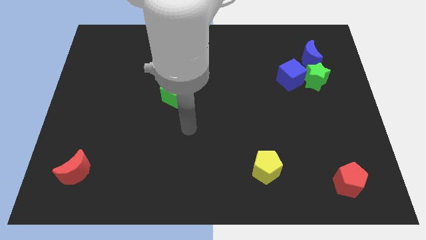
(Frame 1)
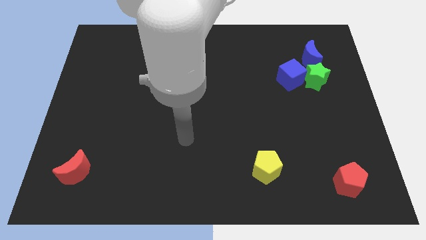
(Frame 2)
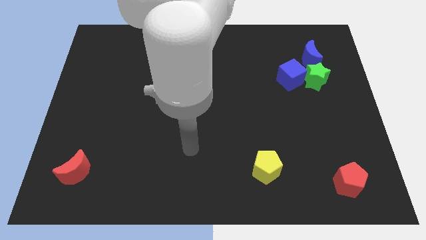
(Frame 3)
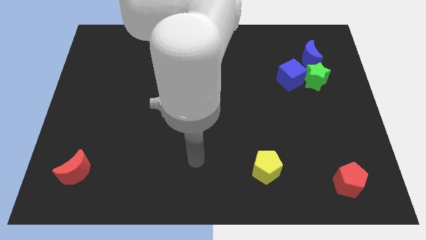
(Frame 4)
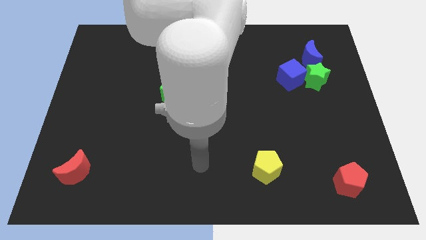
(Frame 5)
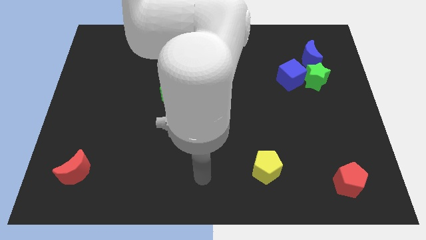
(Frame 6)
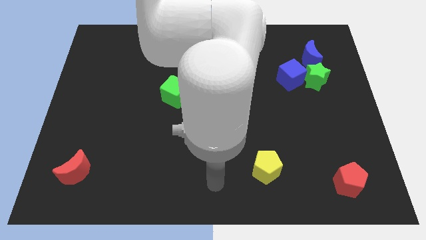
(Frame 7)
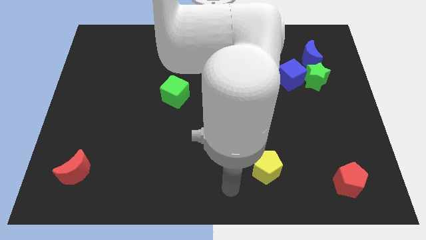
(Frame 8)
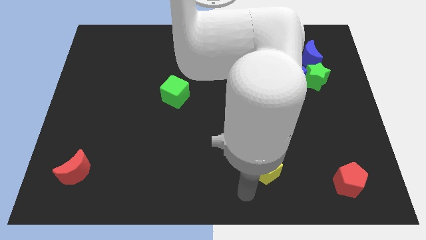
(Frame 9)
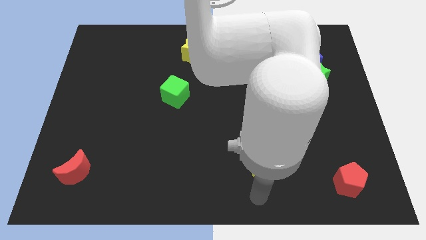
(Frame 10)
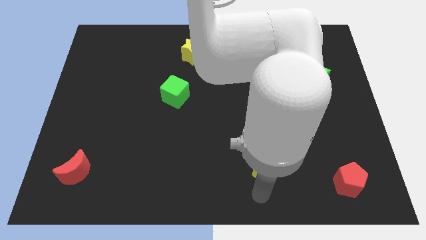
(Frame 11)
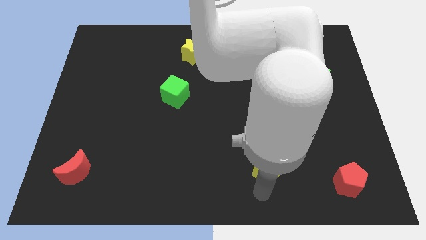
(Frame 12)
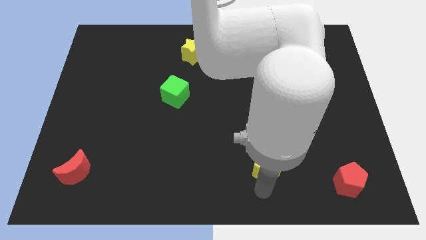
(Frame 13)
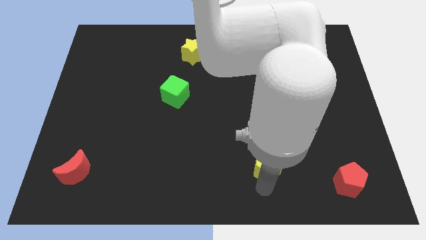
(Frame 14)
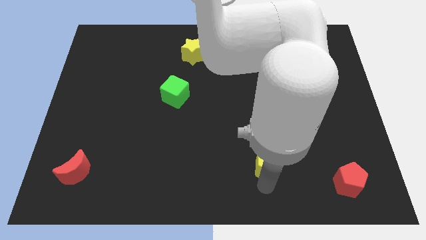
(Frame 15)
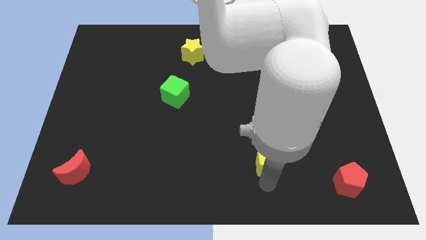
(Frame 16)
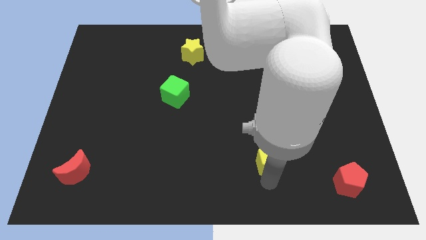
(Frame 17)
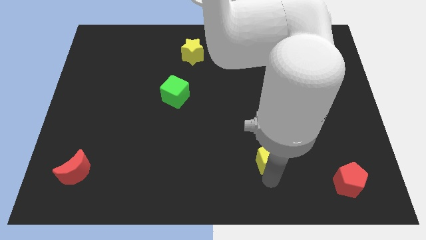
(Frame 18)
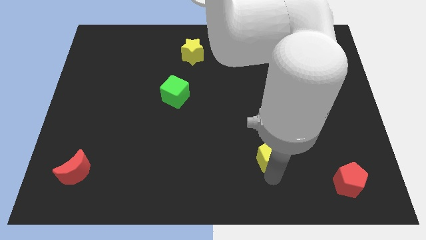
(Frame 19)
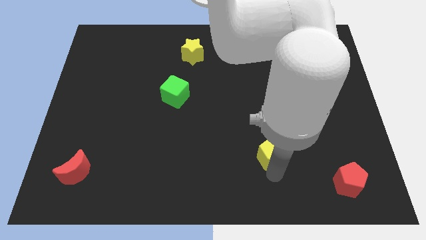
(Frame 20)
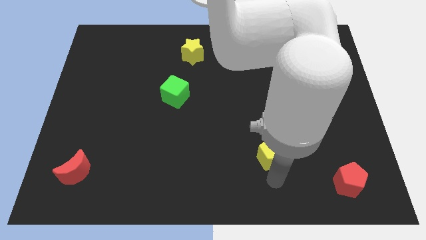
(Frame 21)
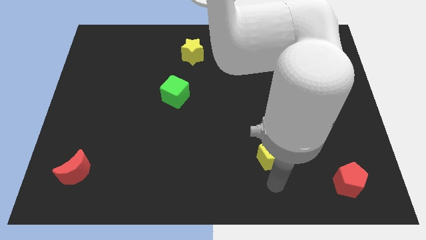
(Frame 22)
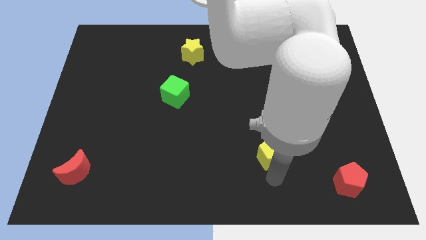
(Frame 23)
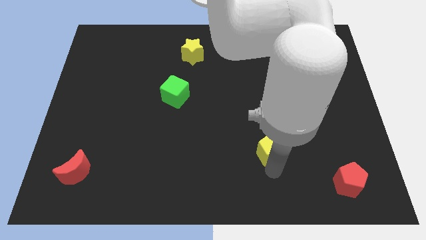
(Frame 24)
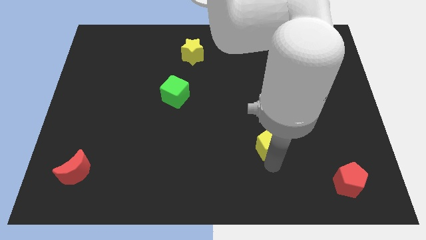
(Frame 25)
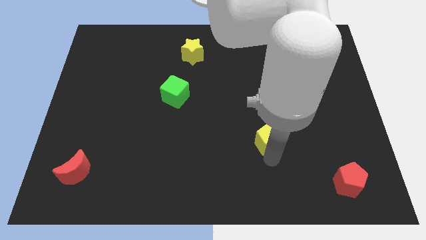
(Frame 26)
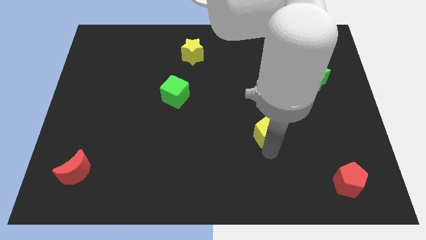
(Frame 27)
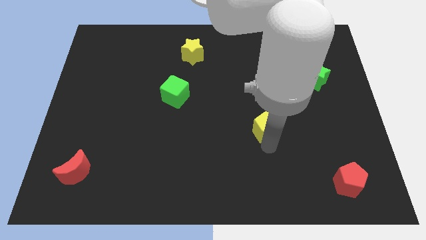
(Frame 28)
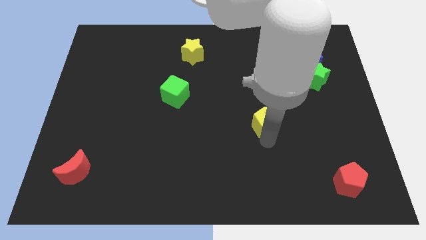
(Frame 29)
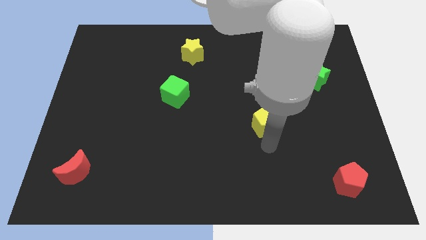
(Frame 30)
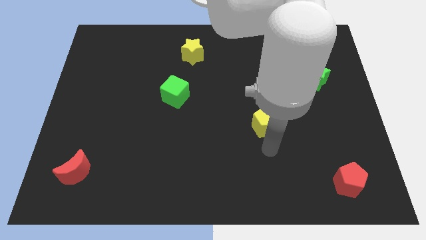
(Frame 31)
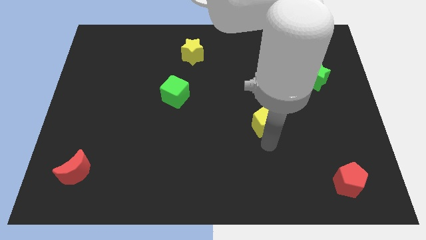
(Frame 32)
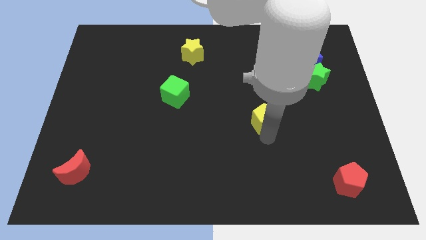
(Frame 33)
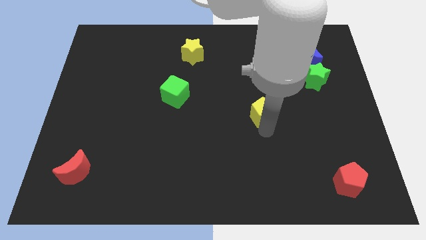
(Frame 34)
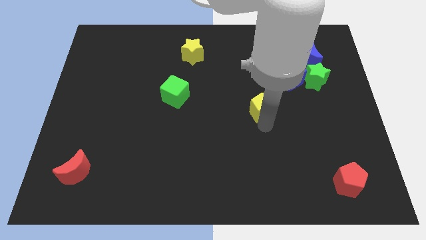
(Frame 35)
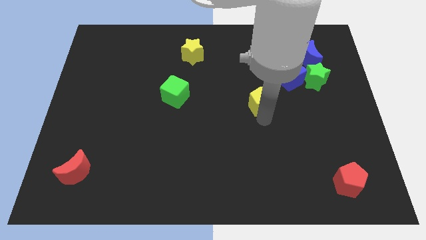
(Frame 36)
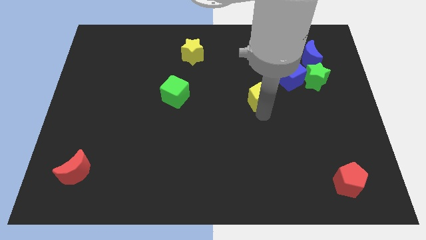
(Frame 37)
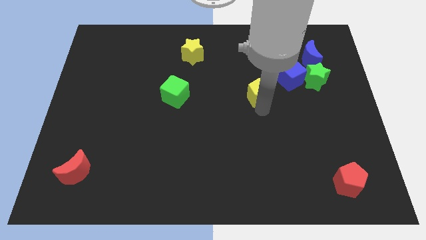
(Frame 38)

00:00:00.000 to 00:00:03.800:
slide the yellow pentagon upwards

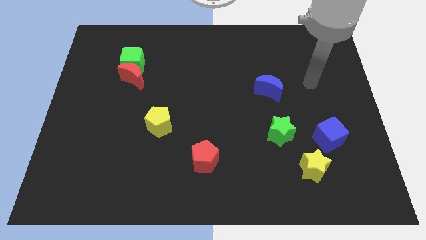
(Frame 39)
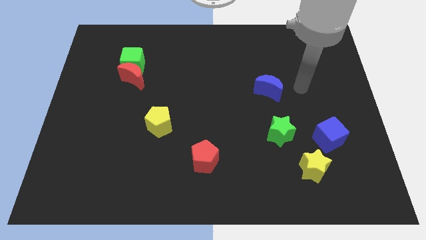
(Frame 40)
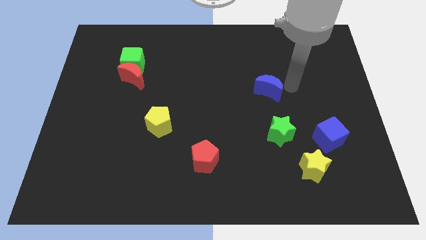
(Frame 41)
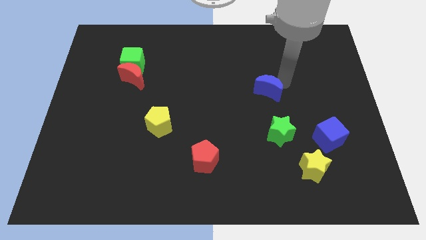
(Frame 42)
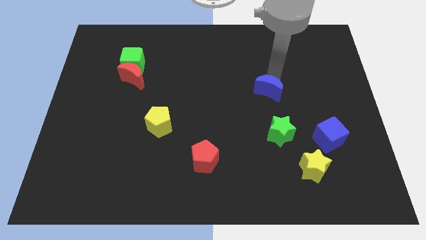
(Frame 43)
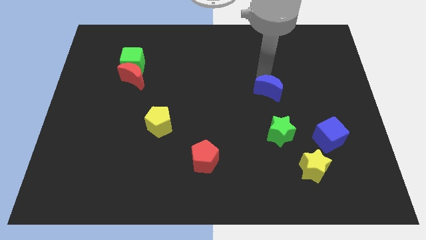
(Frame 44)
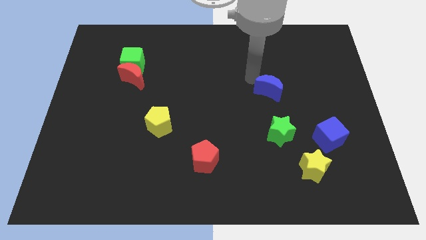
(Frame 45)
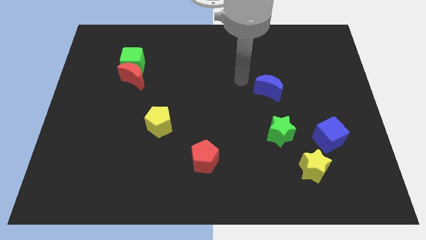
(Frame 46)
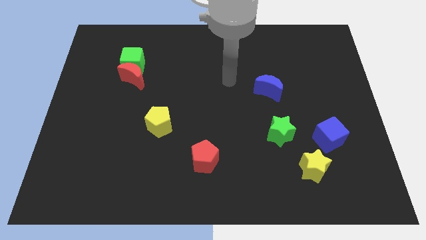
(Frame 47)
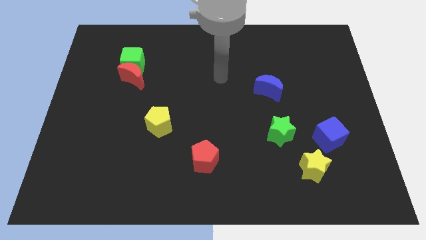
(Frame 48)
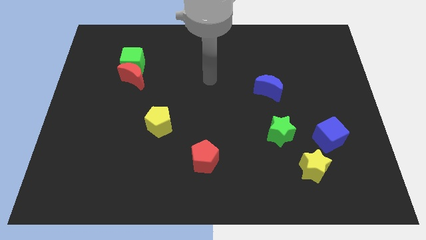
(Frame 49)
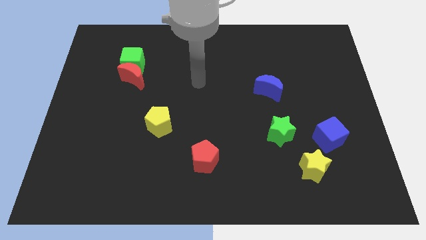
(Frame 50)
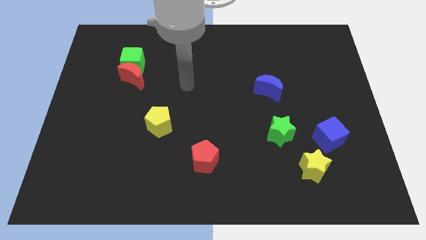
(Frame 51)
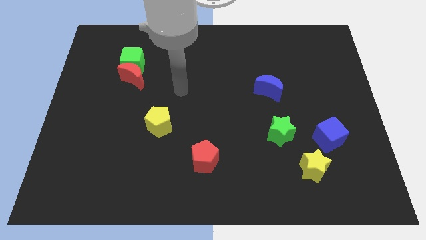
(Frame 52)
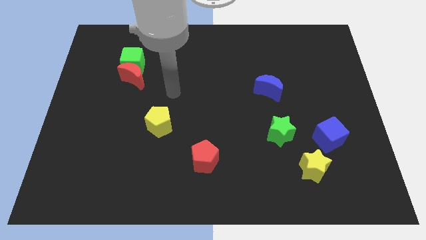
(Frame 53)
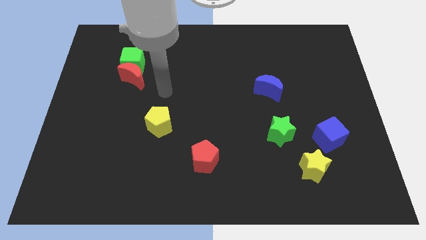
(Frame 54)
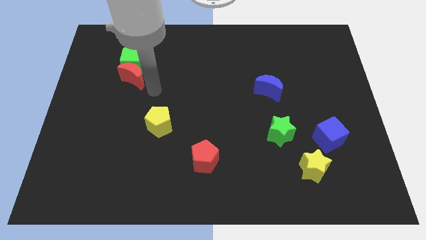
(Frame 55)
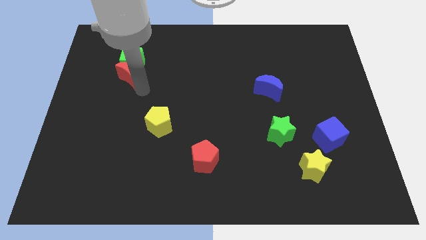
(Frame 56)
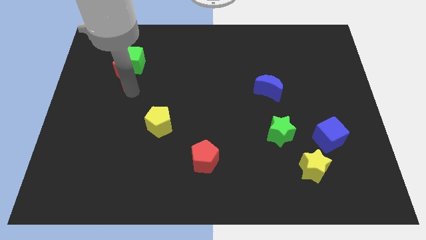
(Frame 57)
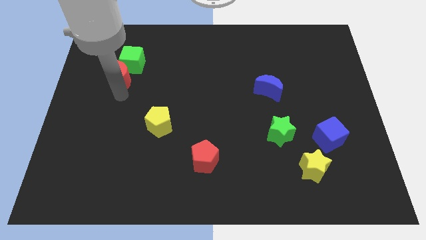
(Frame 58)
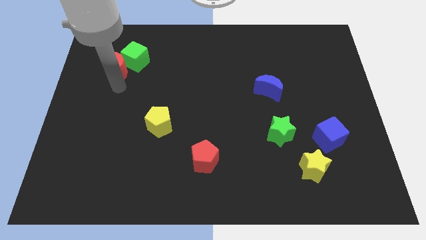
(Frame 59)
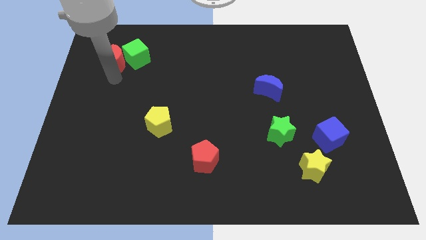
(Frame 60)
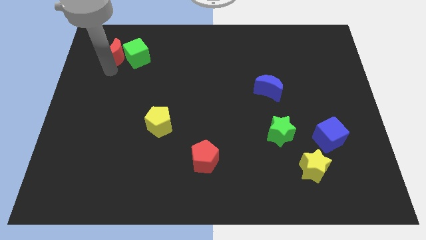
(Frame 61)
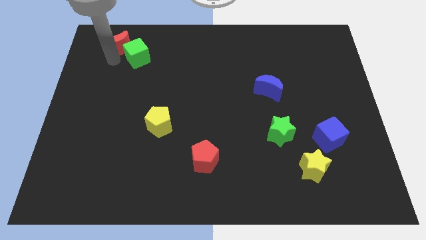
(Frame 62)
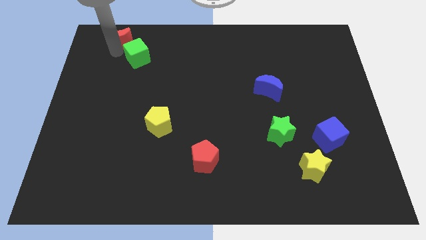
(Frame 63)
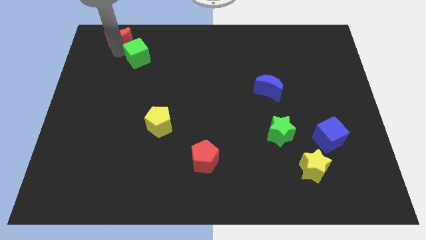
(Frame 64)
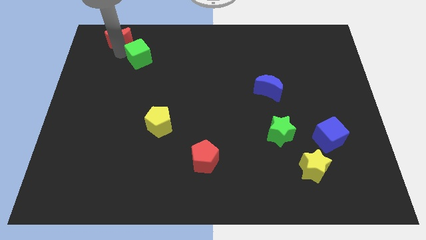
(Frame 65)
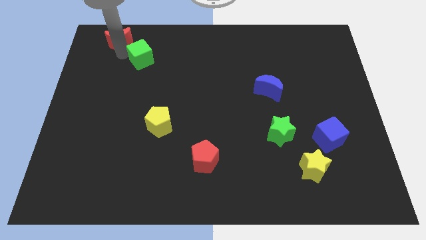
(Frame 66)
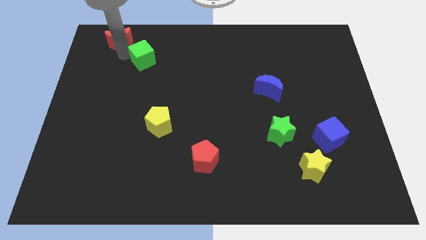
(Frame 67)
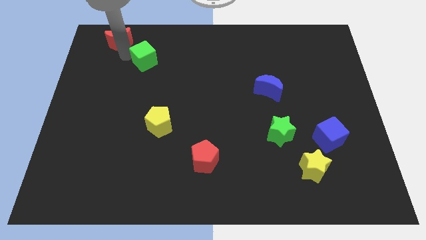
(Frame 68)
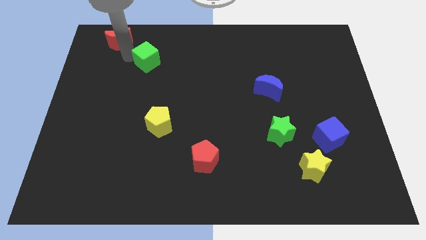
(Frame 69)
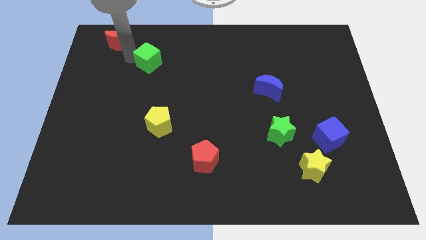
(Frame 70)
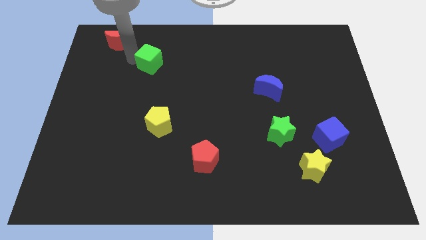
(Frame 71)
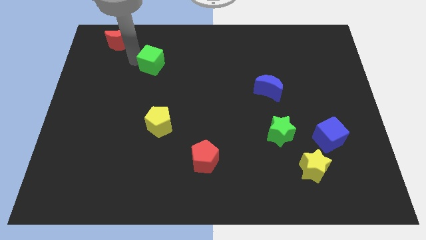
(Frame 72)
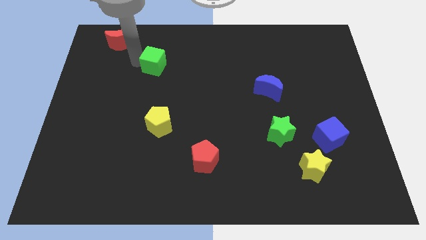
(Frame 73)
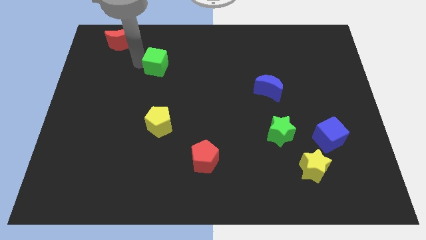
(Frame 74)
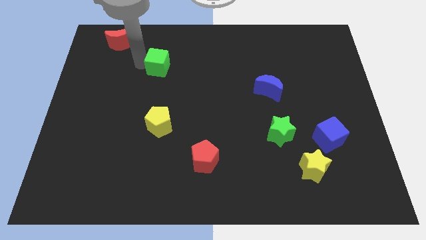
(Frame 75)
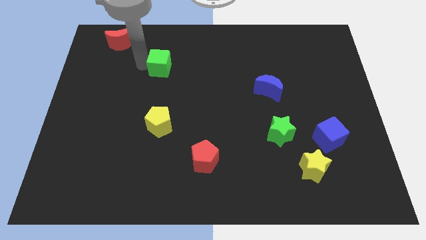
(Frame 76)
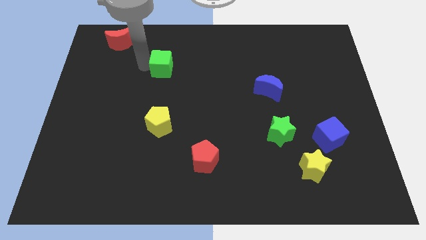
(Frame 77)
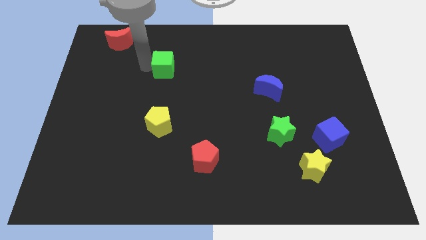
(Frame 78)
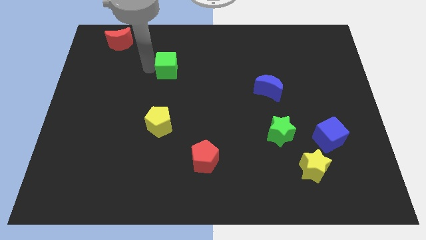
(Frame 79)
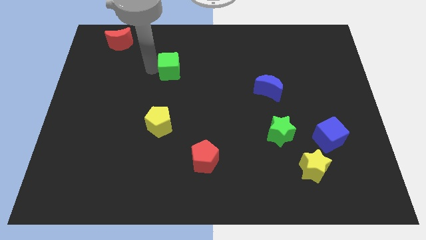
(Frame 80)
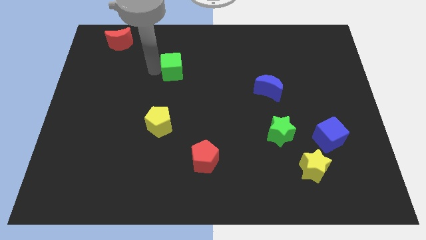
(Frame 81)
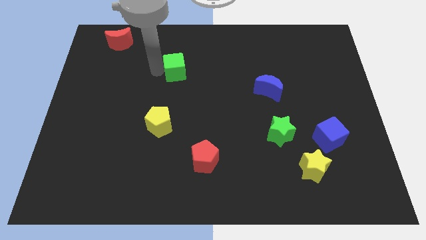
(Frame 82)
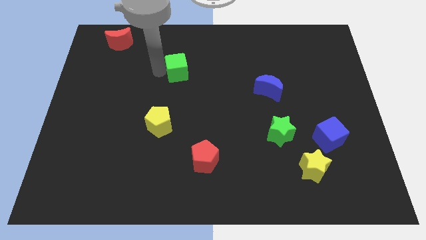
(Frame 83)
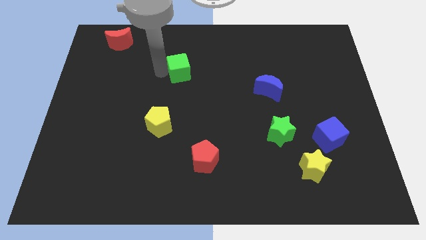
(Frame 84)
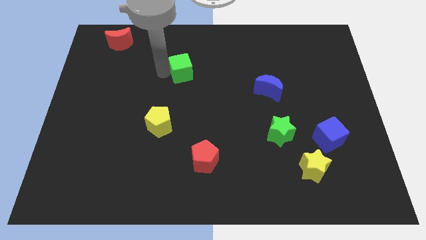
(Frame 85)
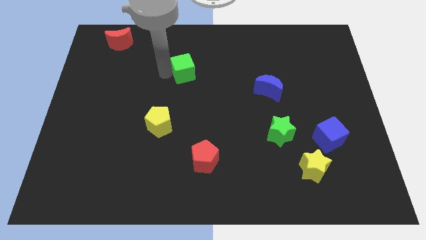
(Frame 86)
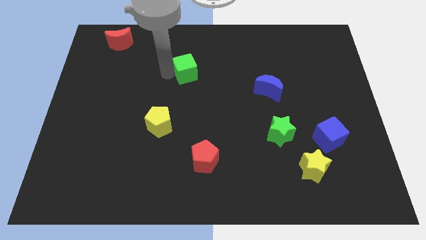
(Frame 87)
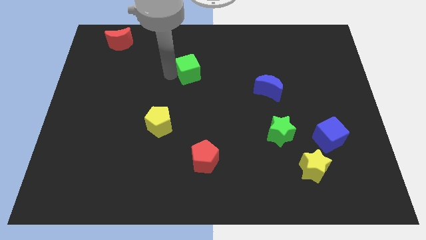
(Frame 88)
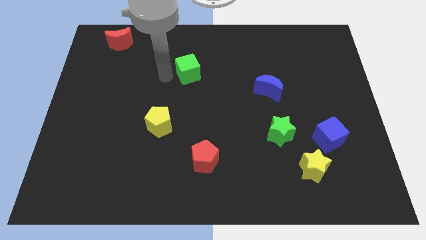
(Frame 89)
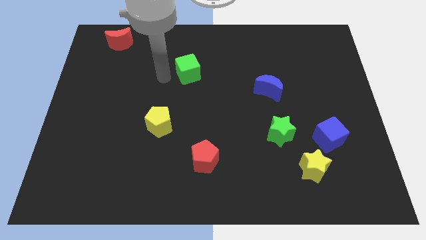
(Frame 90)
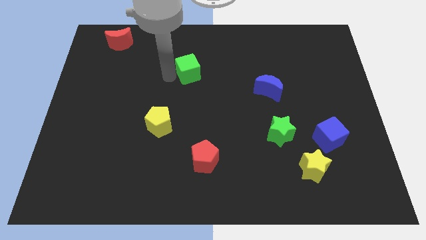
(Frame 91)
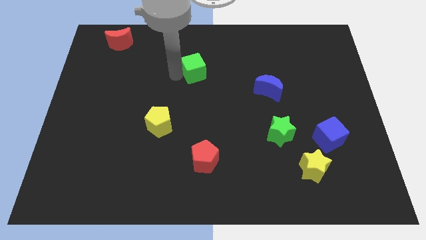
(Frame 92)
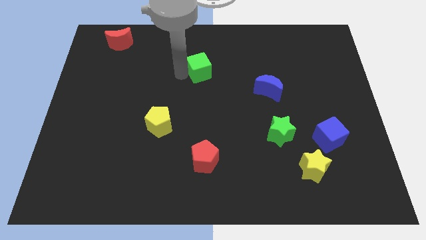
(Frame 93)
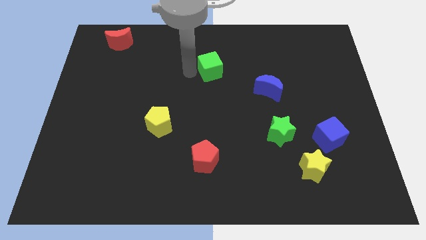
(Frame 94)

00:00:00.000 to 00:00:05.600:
push the green cube right
